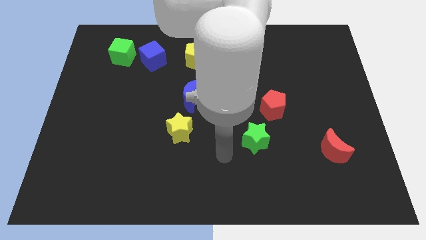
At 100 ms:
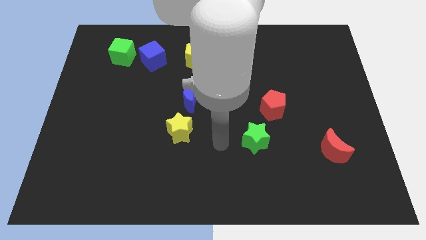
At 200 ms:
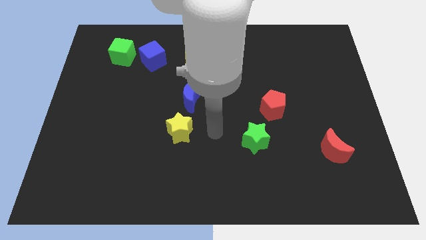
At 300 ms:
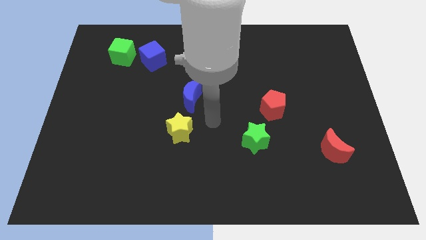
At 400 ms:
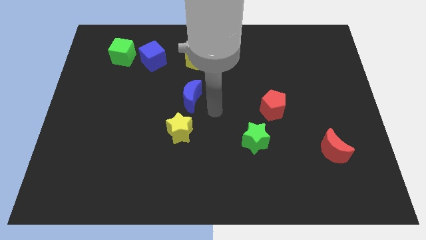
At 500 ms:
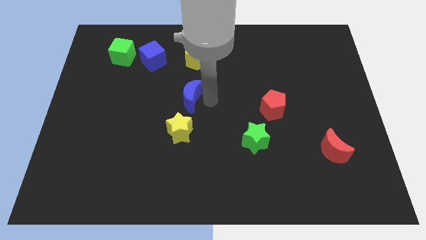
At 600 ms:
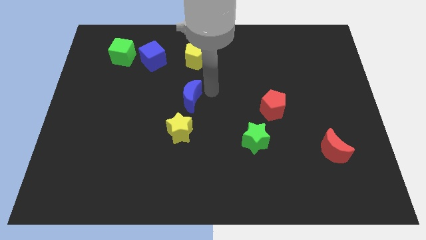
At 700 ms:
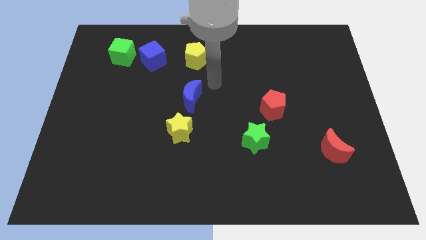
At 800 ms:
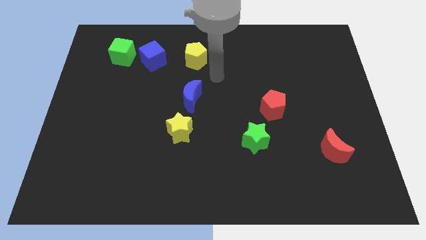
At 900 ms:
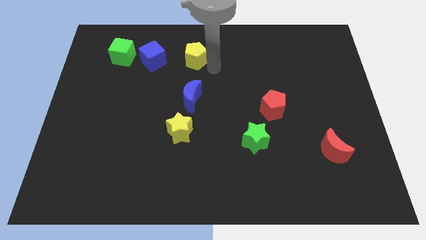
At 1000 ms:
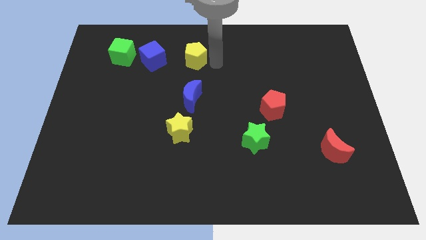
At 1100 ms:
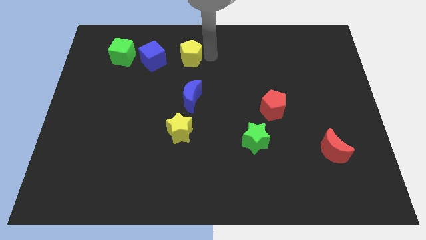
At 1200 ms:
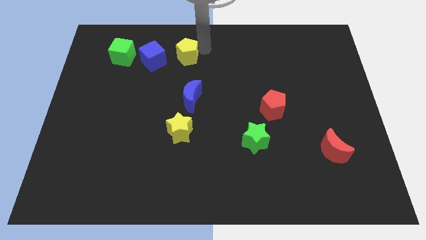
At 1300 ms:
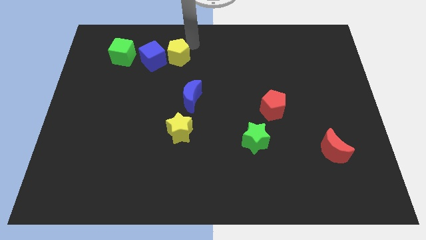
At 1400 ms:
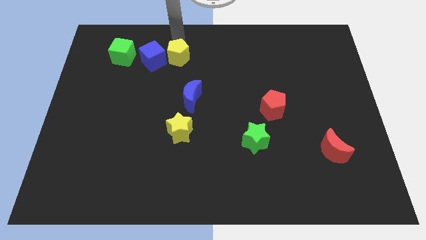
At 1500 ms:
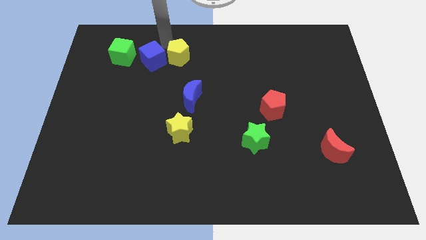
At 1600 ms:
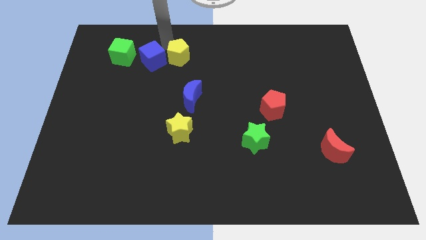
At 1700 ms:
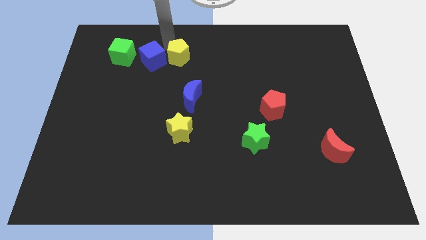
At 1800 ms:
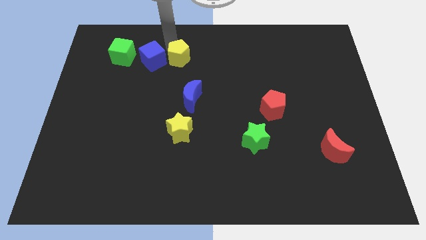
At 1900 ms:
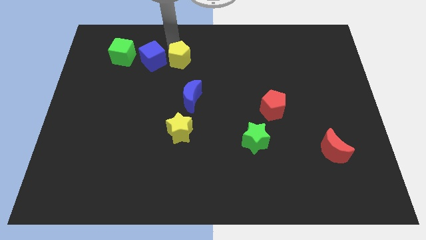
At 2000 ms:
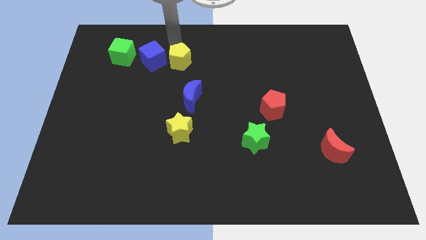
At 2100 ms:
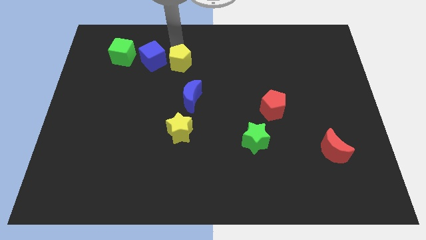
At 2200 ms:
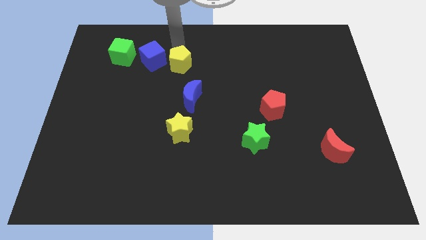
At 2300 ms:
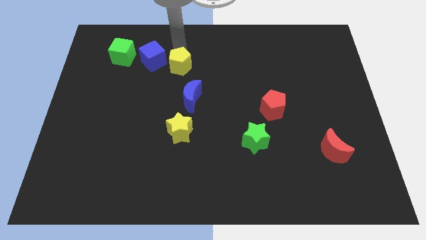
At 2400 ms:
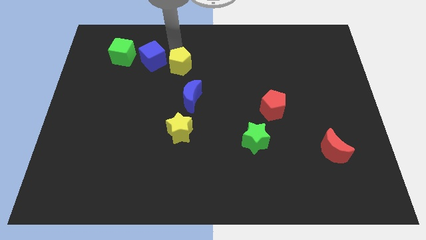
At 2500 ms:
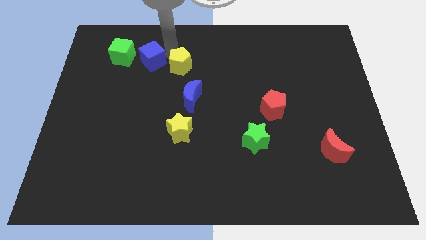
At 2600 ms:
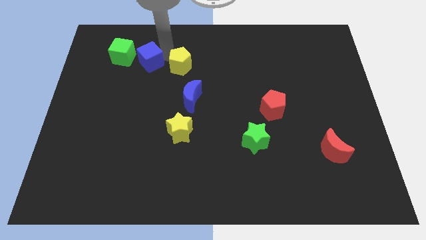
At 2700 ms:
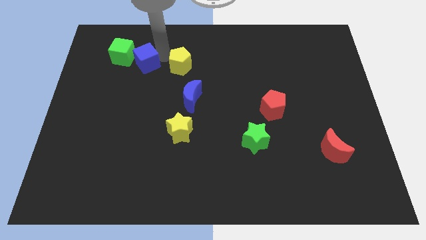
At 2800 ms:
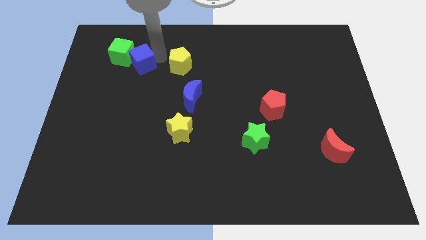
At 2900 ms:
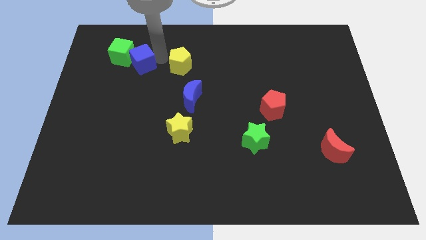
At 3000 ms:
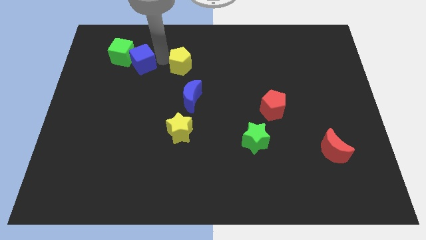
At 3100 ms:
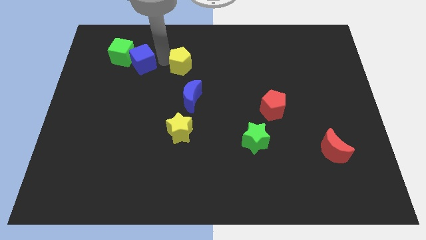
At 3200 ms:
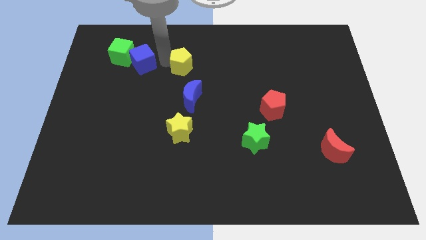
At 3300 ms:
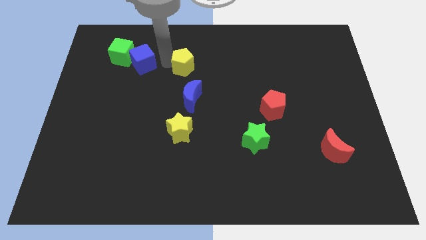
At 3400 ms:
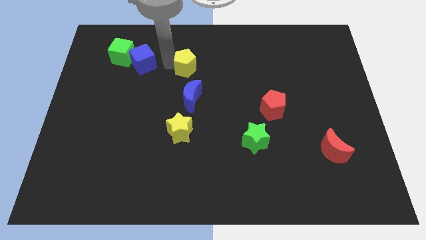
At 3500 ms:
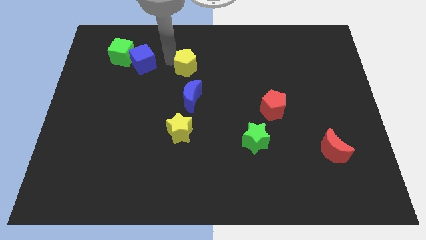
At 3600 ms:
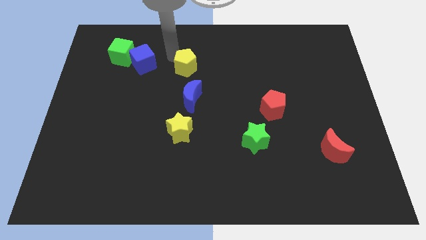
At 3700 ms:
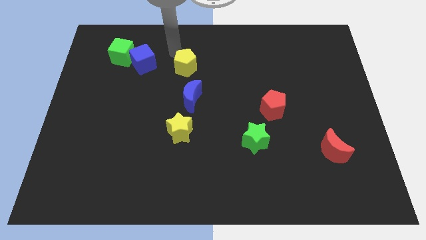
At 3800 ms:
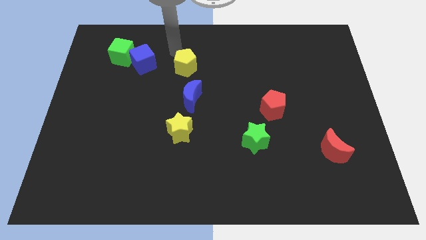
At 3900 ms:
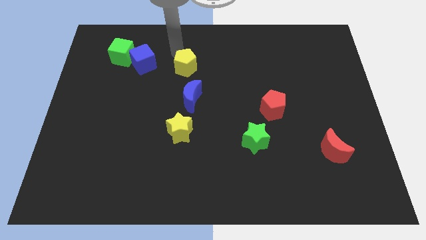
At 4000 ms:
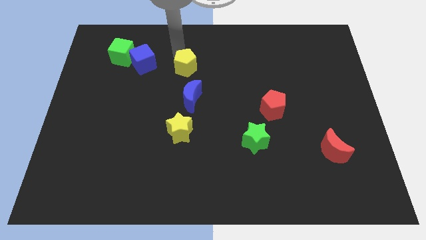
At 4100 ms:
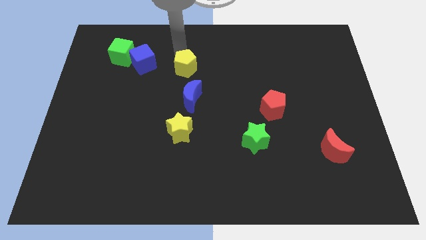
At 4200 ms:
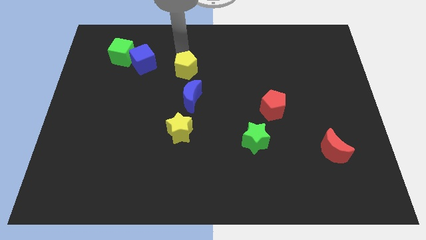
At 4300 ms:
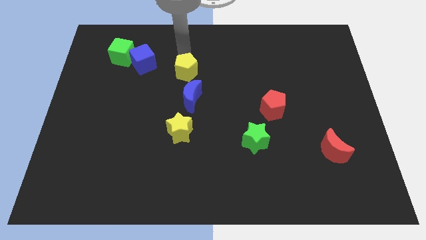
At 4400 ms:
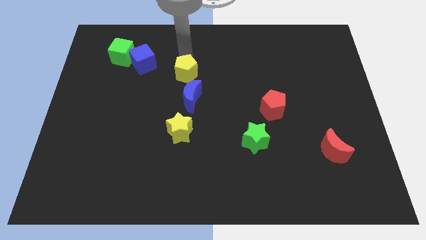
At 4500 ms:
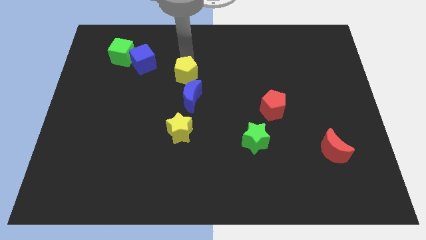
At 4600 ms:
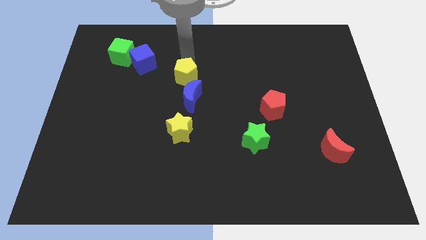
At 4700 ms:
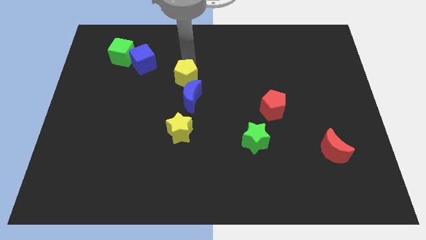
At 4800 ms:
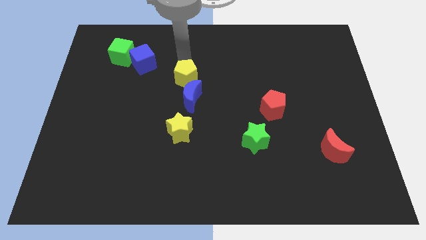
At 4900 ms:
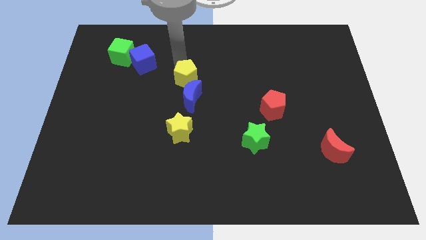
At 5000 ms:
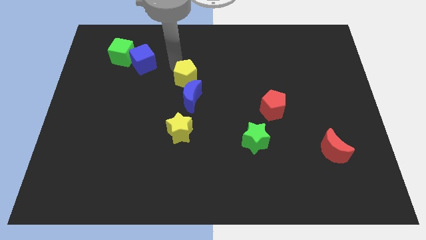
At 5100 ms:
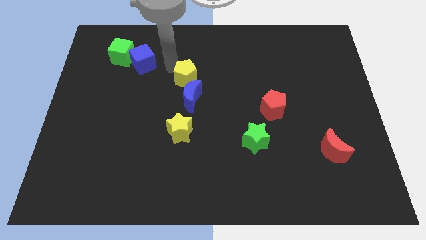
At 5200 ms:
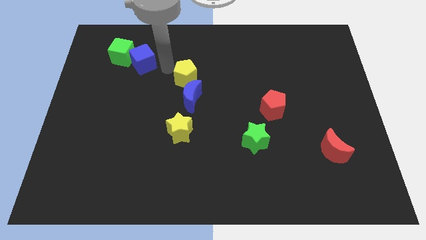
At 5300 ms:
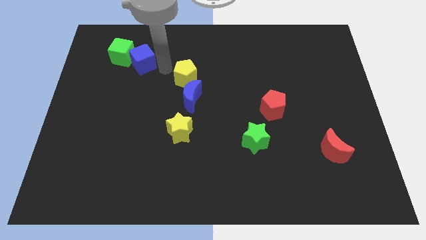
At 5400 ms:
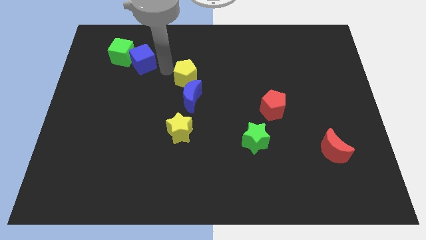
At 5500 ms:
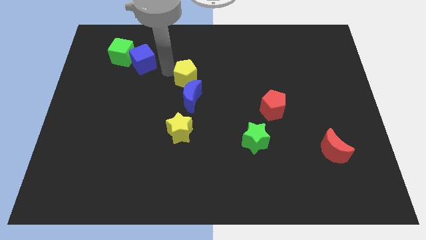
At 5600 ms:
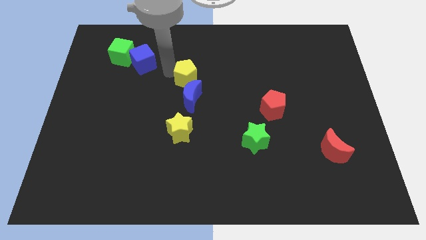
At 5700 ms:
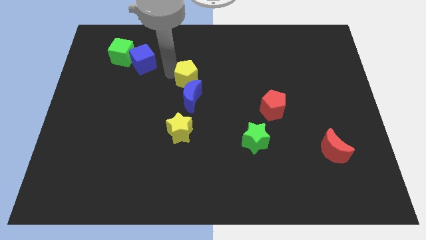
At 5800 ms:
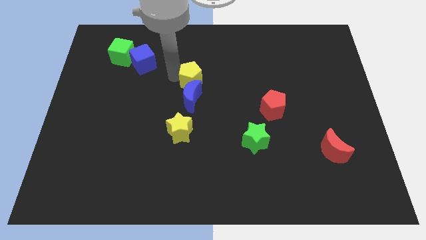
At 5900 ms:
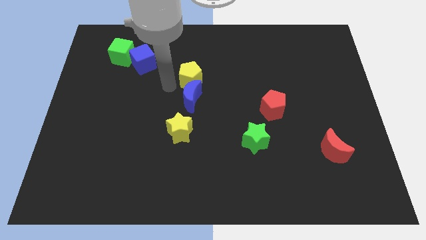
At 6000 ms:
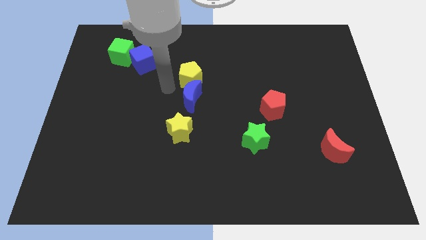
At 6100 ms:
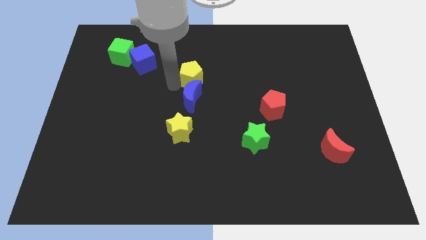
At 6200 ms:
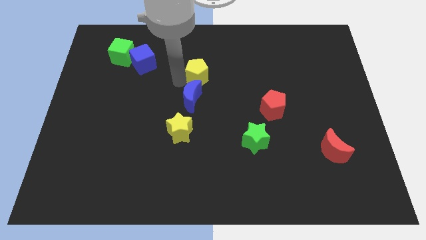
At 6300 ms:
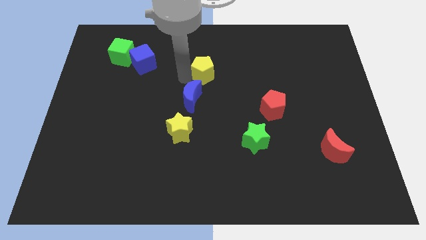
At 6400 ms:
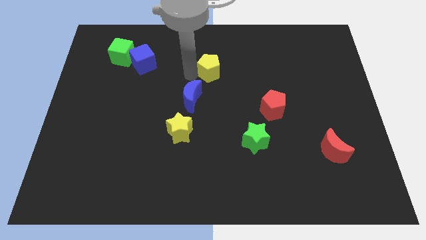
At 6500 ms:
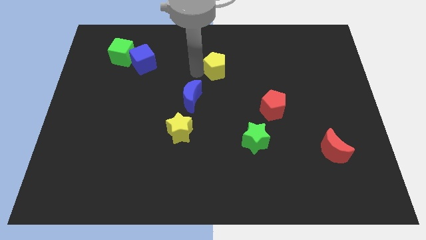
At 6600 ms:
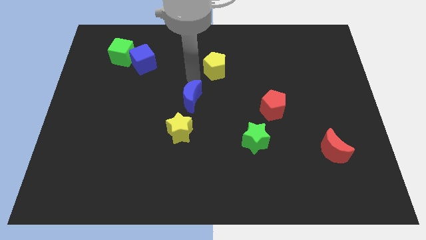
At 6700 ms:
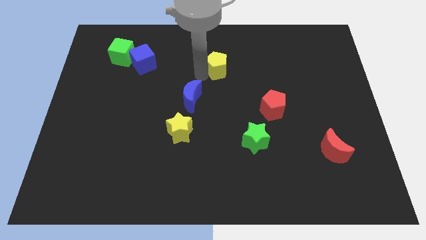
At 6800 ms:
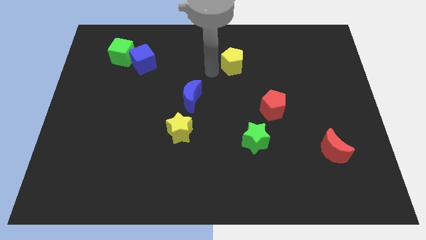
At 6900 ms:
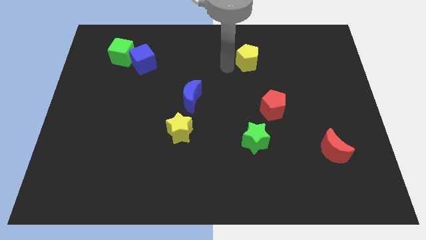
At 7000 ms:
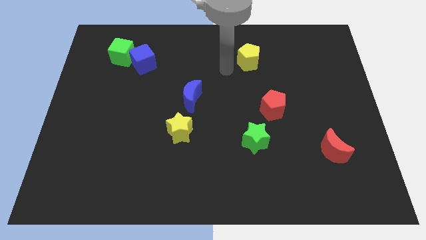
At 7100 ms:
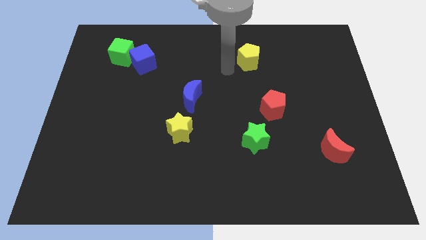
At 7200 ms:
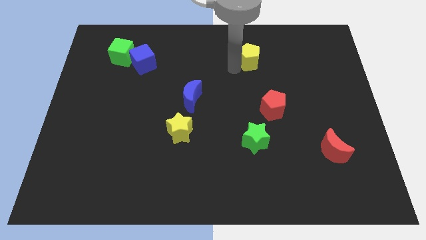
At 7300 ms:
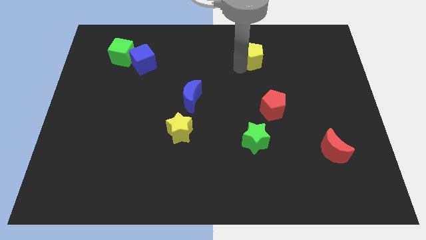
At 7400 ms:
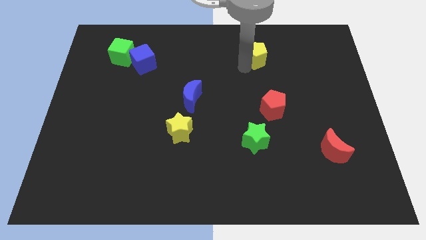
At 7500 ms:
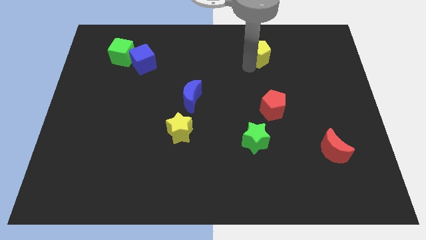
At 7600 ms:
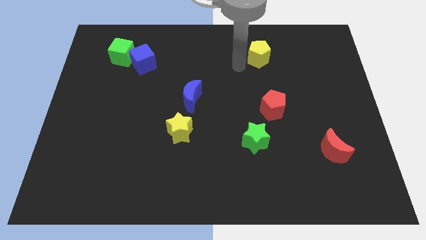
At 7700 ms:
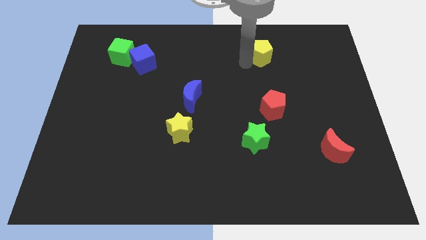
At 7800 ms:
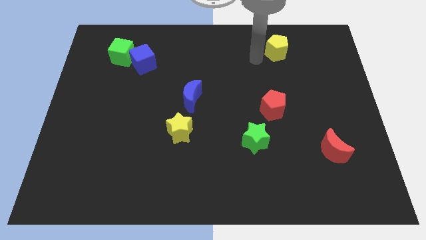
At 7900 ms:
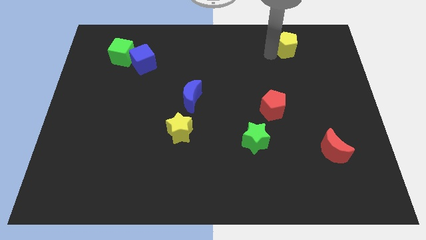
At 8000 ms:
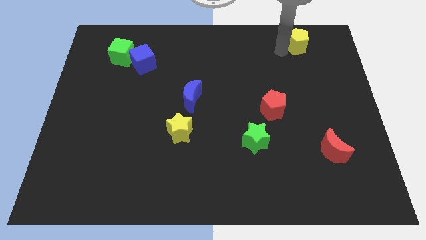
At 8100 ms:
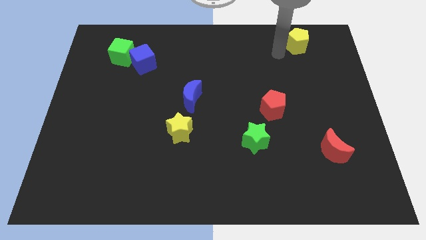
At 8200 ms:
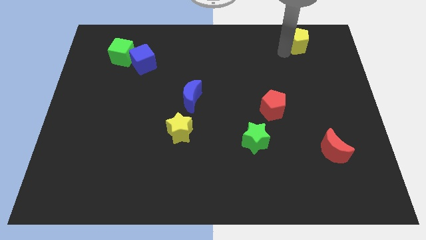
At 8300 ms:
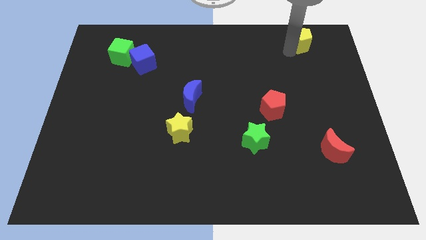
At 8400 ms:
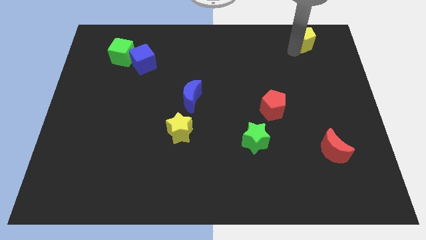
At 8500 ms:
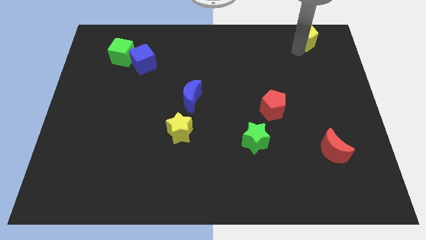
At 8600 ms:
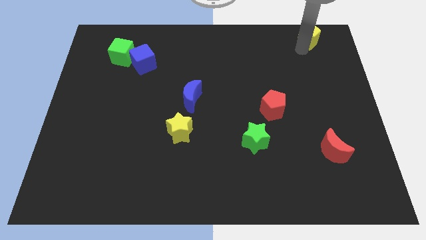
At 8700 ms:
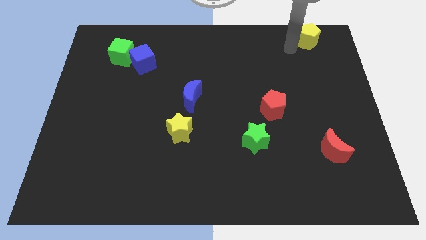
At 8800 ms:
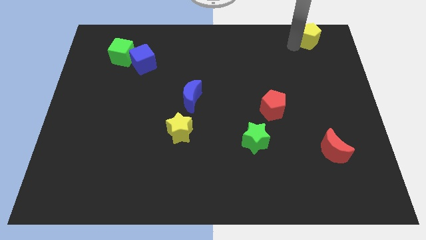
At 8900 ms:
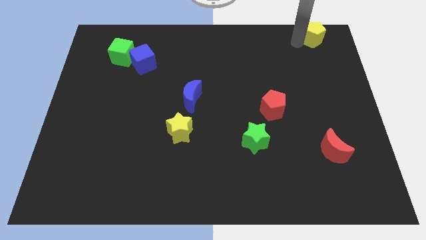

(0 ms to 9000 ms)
put the yellow pentagon to the upper right corner
